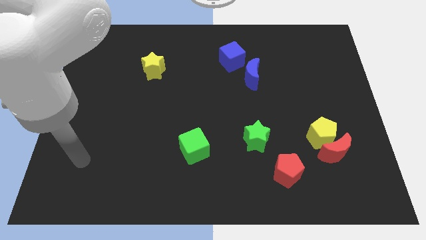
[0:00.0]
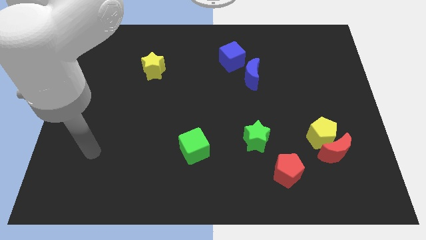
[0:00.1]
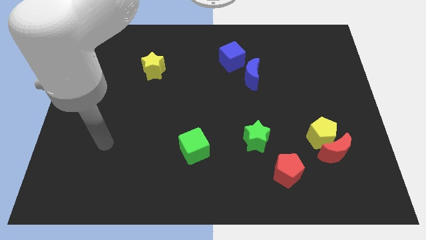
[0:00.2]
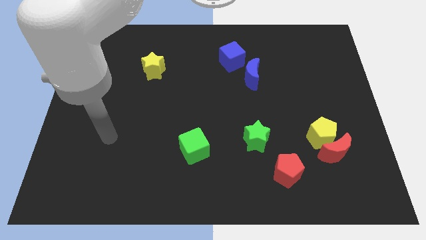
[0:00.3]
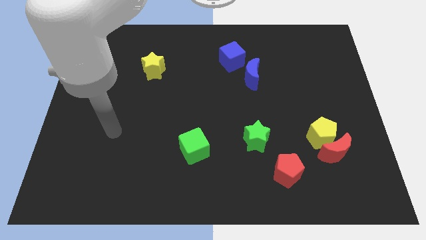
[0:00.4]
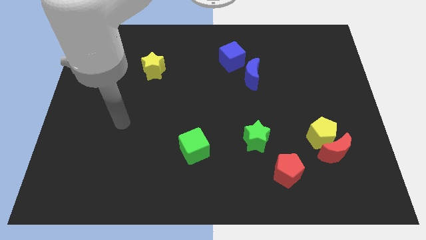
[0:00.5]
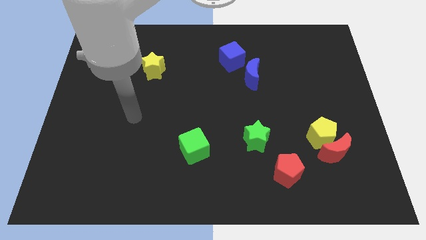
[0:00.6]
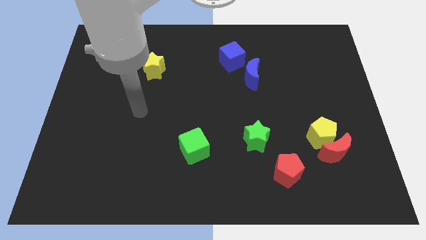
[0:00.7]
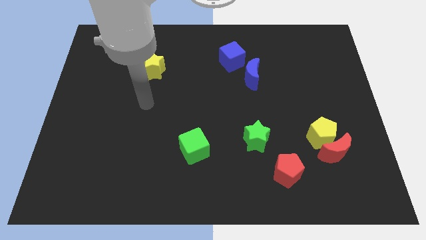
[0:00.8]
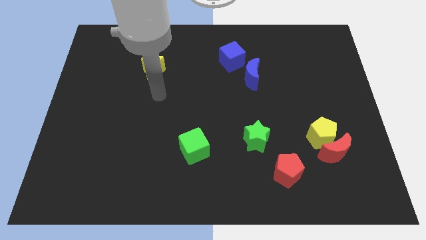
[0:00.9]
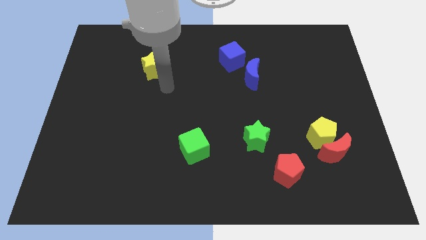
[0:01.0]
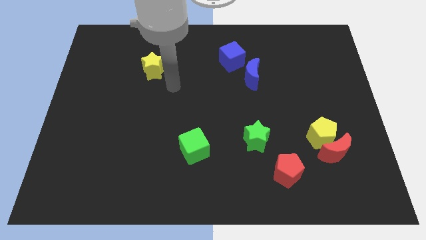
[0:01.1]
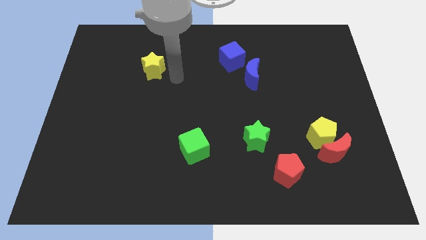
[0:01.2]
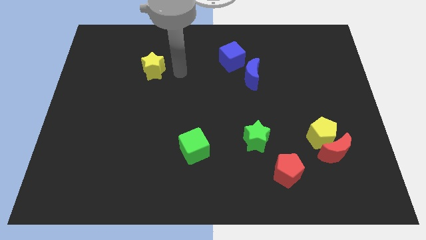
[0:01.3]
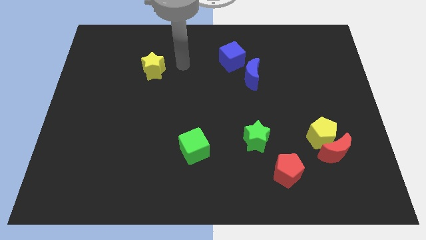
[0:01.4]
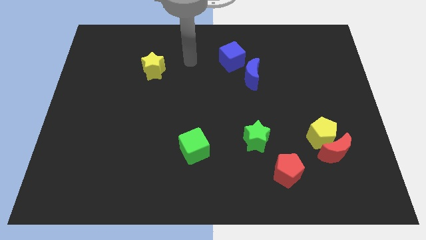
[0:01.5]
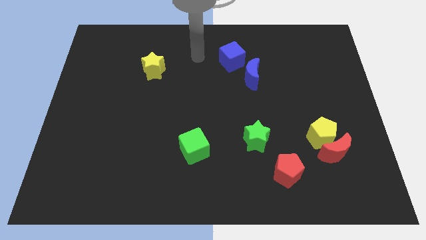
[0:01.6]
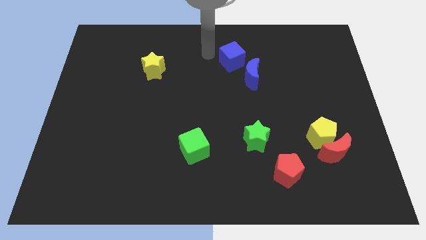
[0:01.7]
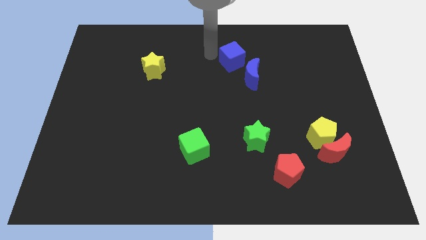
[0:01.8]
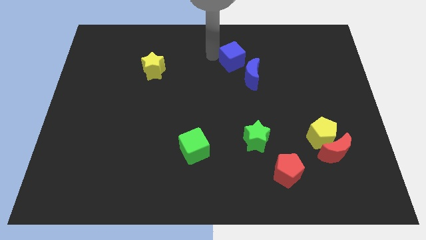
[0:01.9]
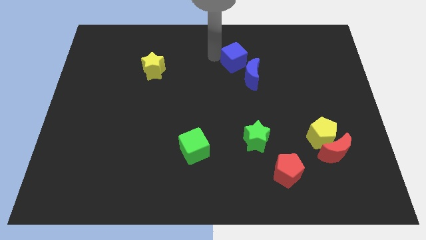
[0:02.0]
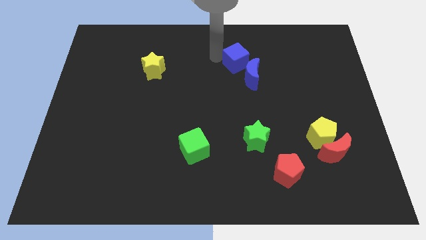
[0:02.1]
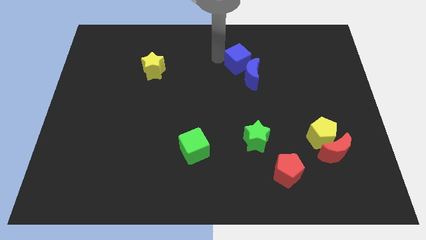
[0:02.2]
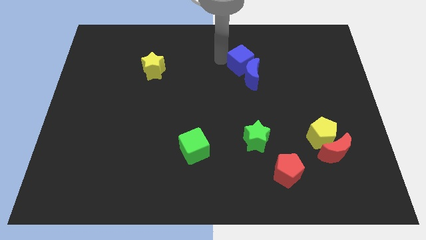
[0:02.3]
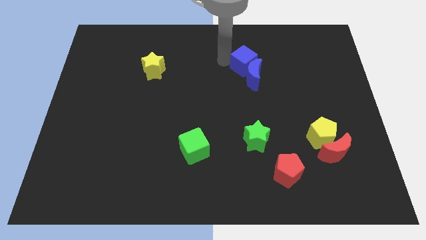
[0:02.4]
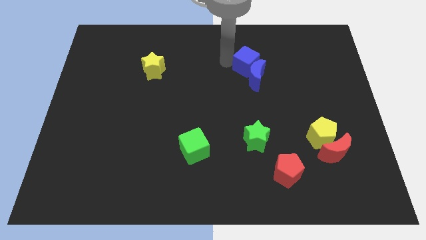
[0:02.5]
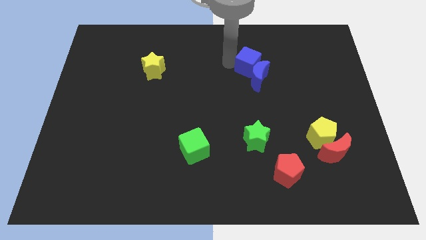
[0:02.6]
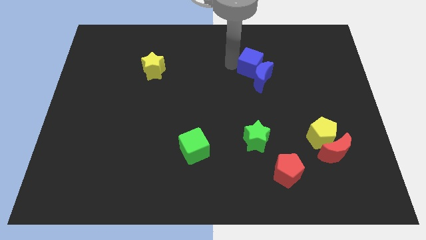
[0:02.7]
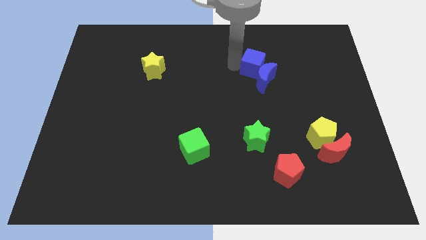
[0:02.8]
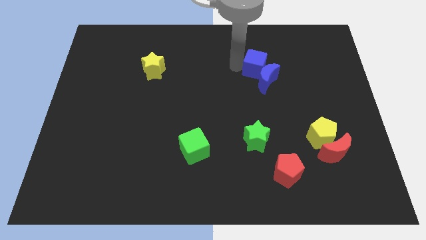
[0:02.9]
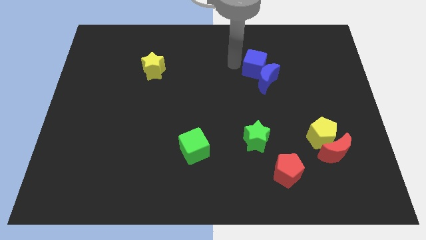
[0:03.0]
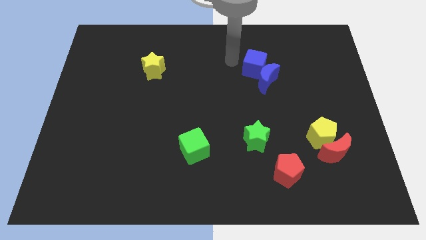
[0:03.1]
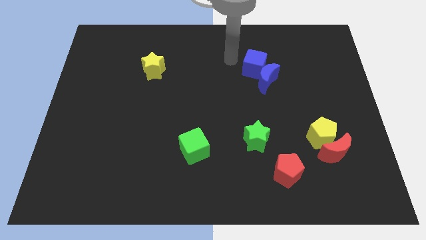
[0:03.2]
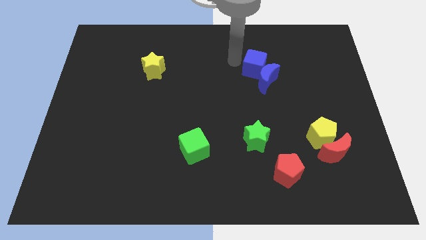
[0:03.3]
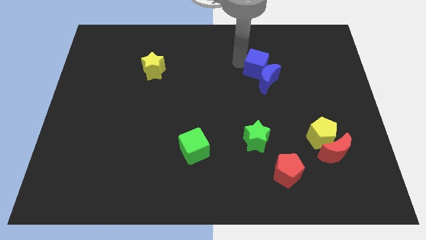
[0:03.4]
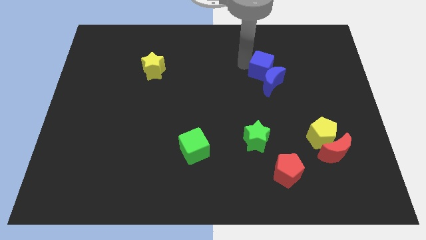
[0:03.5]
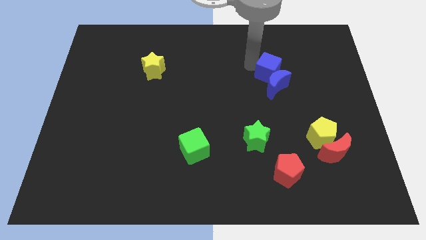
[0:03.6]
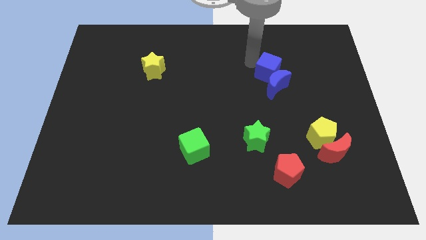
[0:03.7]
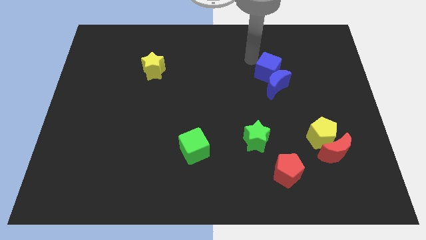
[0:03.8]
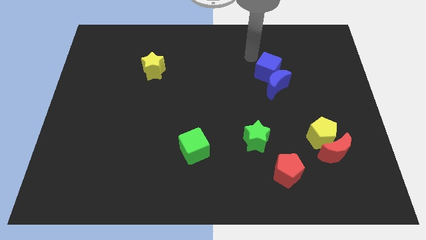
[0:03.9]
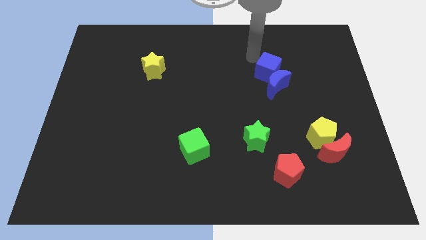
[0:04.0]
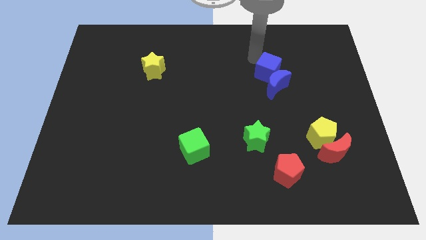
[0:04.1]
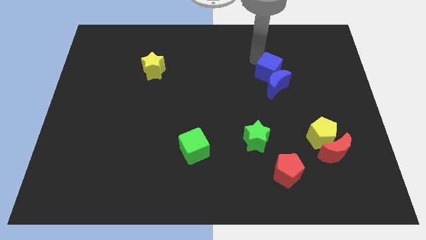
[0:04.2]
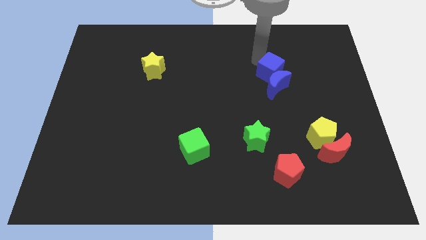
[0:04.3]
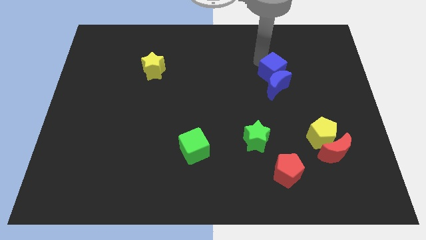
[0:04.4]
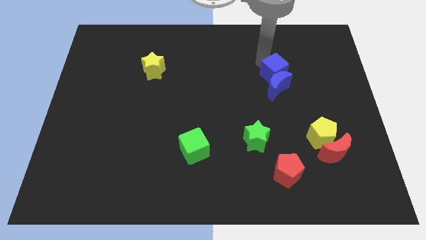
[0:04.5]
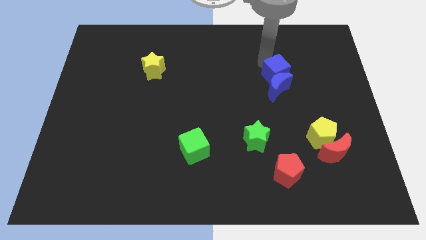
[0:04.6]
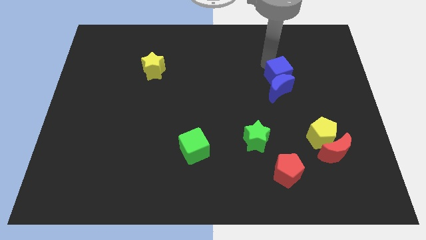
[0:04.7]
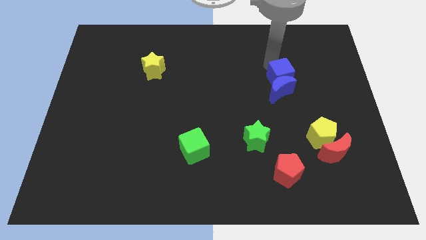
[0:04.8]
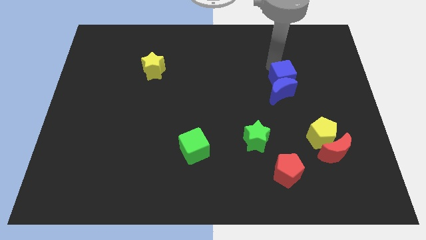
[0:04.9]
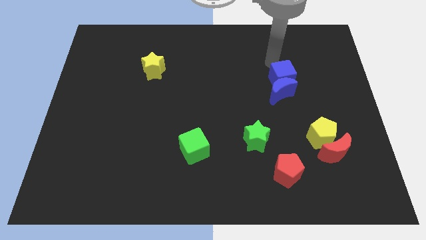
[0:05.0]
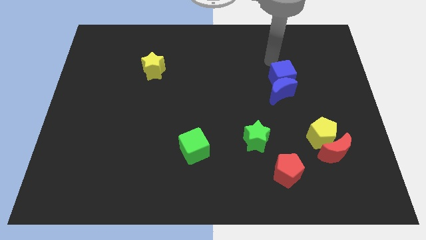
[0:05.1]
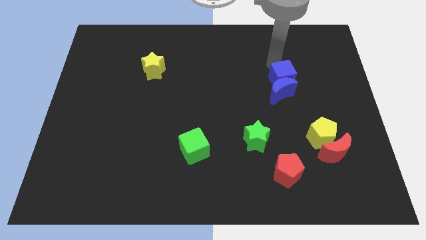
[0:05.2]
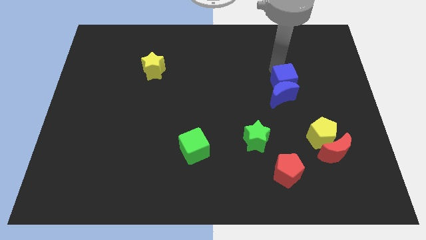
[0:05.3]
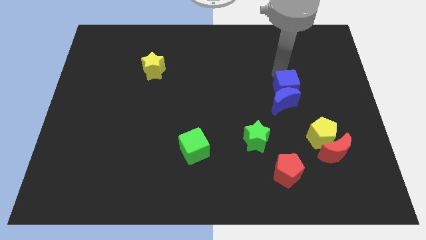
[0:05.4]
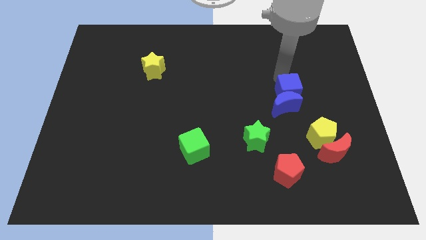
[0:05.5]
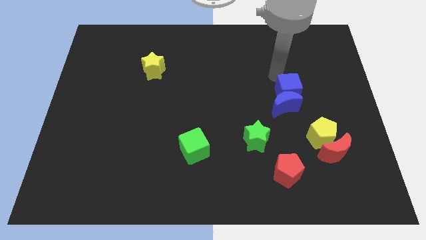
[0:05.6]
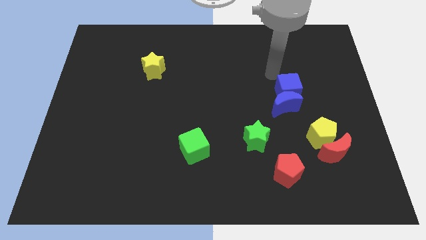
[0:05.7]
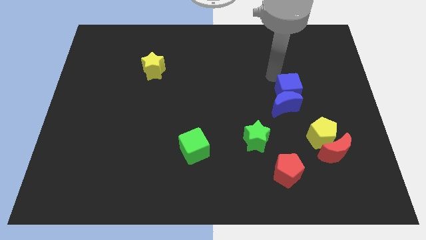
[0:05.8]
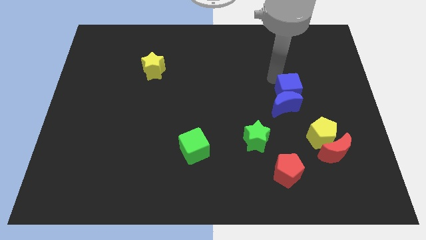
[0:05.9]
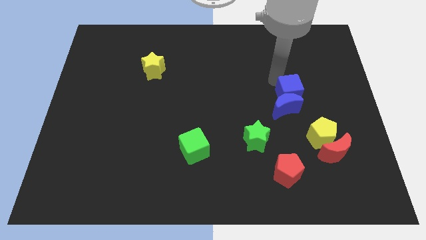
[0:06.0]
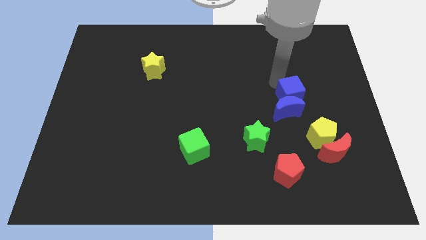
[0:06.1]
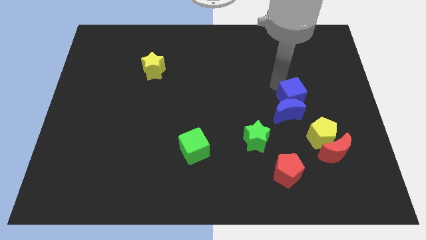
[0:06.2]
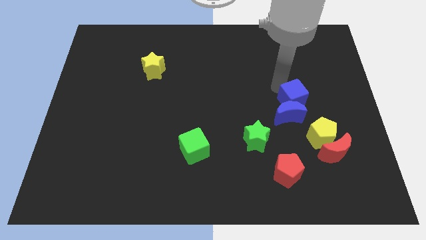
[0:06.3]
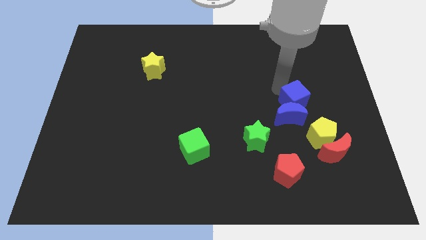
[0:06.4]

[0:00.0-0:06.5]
move the blue cube downwards and then to the right

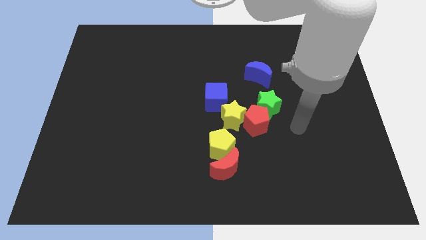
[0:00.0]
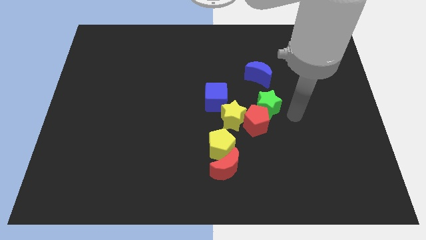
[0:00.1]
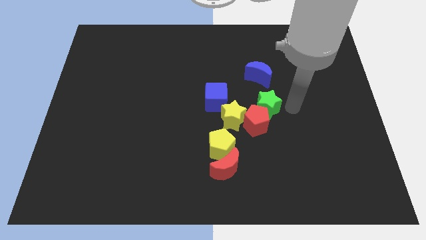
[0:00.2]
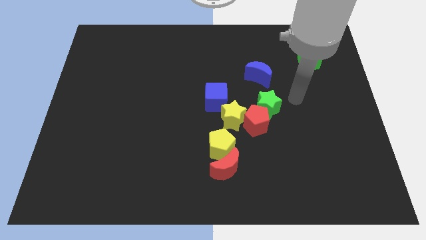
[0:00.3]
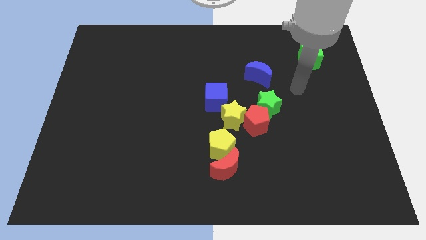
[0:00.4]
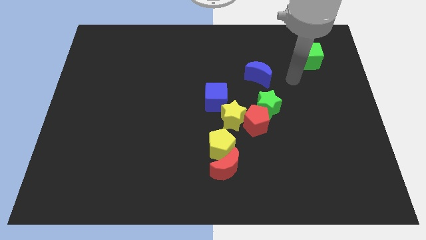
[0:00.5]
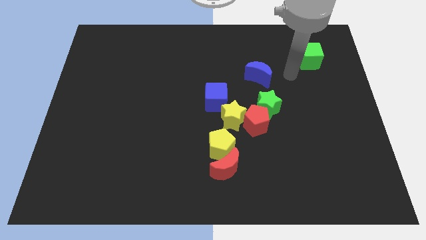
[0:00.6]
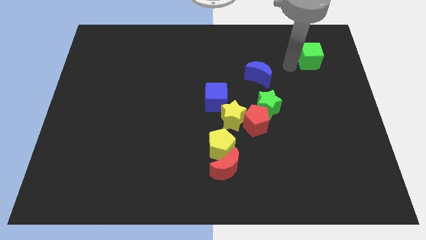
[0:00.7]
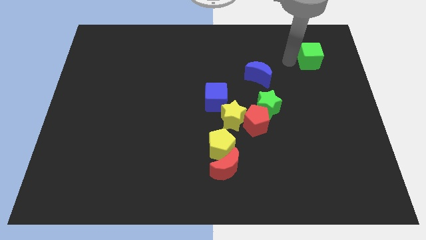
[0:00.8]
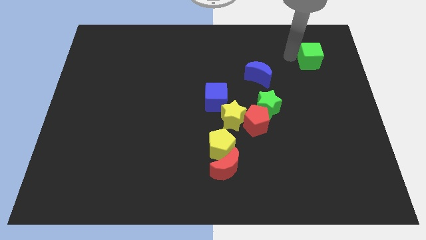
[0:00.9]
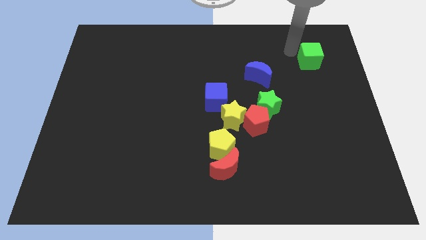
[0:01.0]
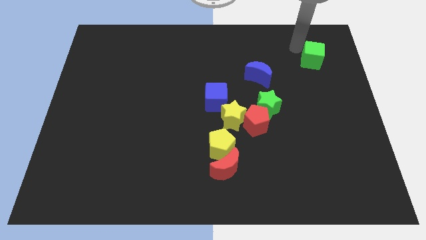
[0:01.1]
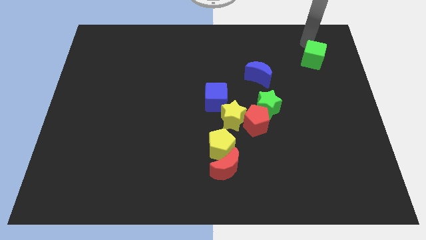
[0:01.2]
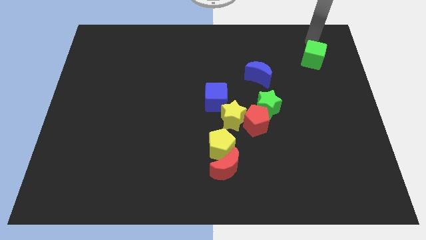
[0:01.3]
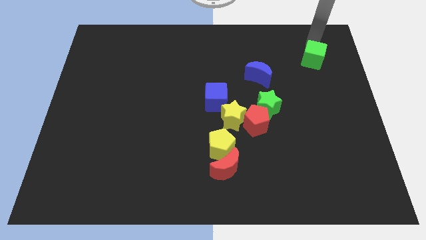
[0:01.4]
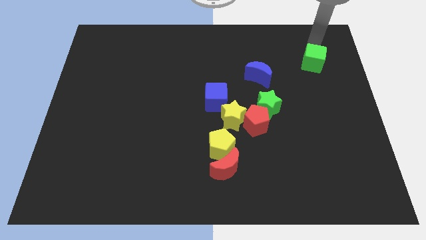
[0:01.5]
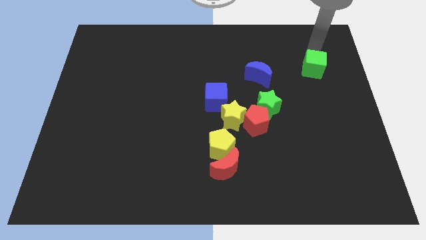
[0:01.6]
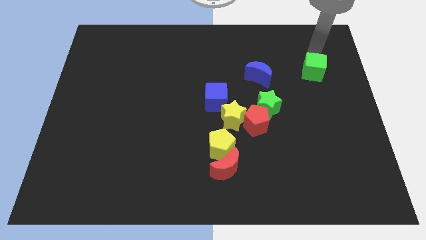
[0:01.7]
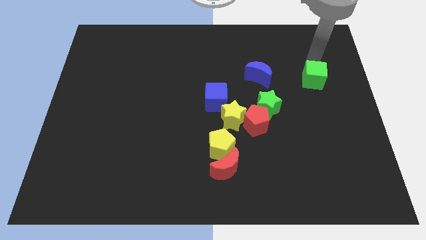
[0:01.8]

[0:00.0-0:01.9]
slightly move the green cube downwards
